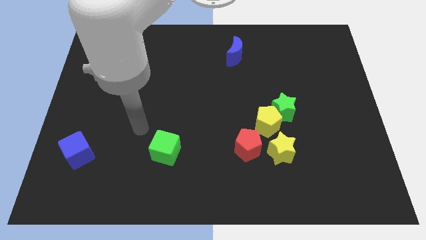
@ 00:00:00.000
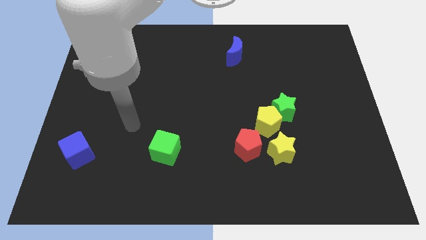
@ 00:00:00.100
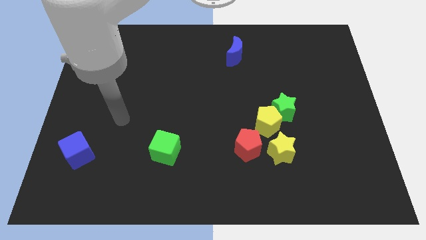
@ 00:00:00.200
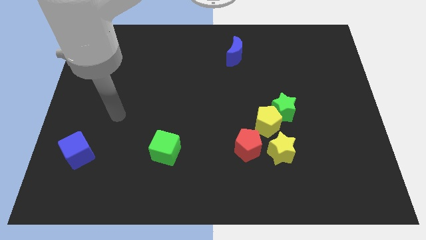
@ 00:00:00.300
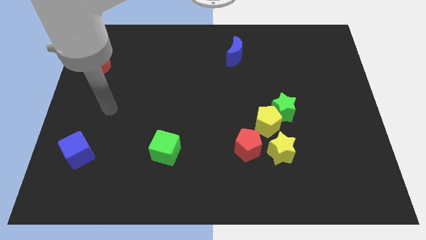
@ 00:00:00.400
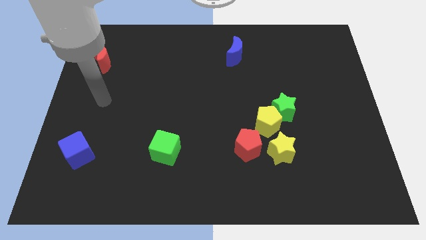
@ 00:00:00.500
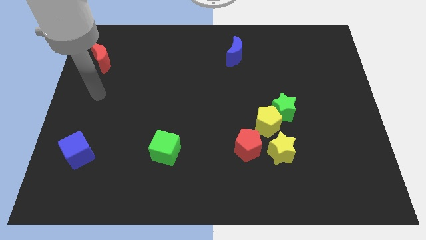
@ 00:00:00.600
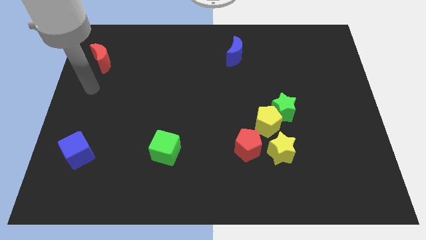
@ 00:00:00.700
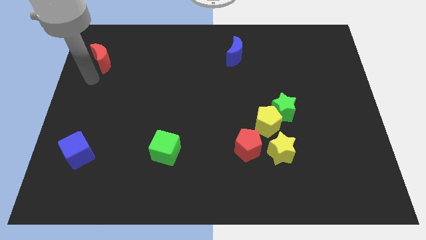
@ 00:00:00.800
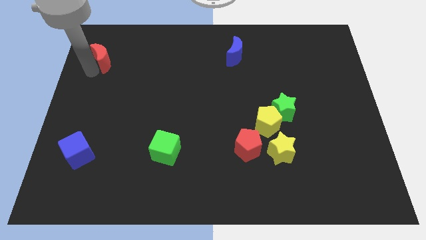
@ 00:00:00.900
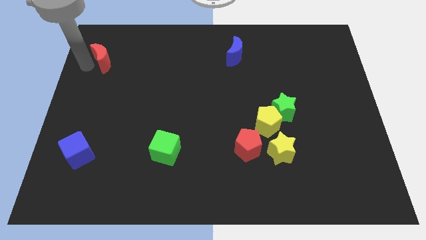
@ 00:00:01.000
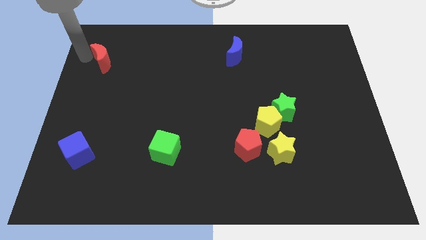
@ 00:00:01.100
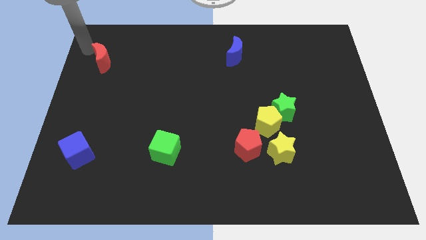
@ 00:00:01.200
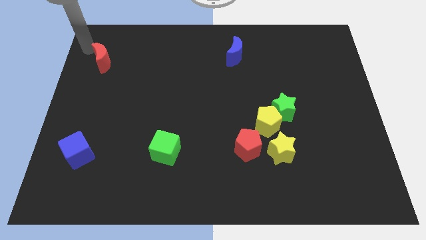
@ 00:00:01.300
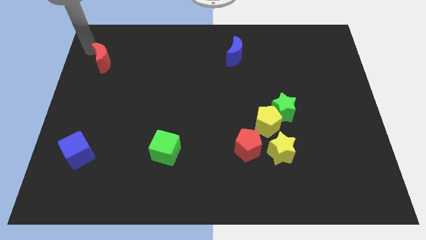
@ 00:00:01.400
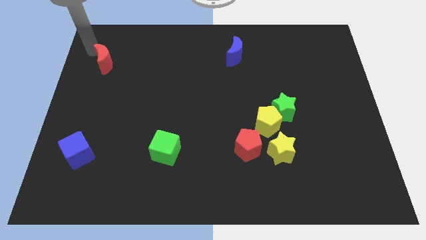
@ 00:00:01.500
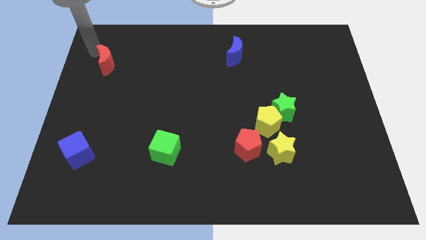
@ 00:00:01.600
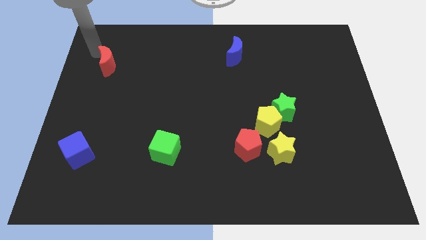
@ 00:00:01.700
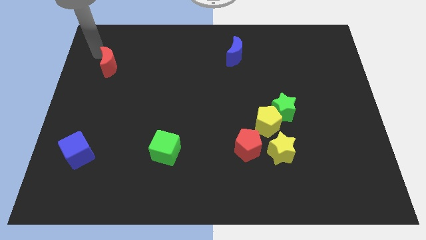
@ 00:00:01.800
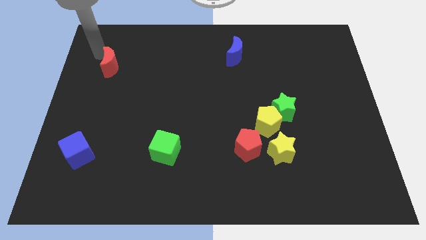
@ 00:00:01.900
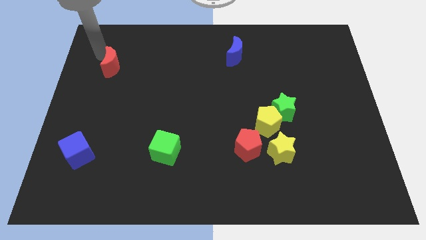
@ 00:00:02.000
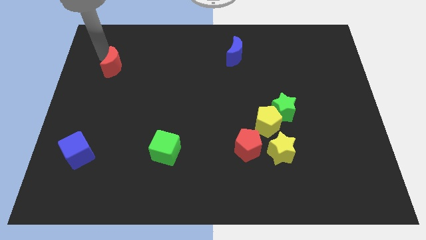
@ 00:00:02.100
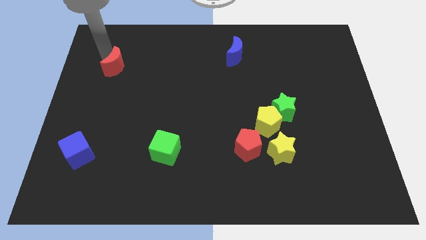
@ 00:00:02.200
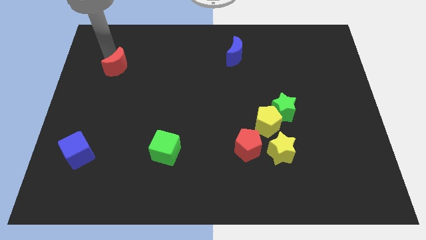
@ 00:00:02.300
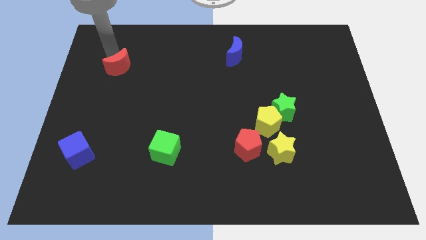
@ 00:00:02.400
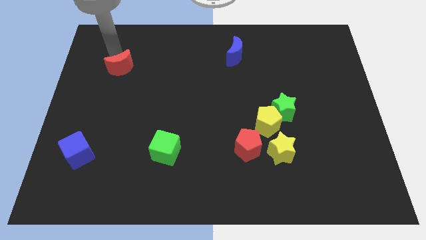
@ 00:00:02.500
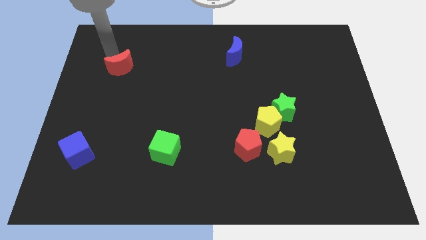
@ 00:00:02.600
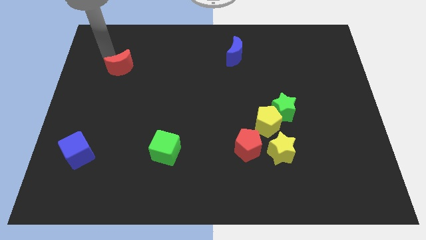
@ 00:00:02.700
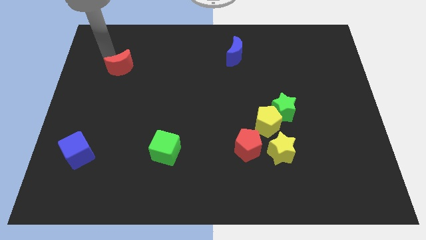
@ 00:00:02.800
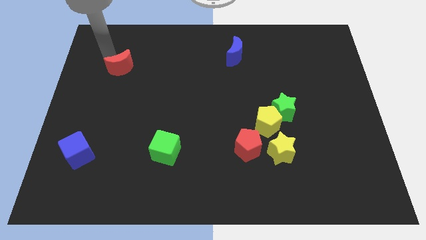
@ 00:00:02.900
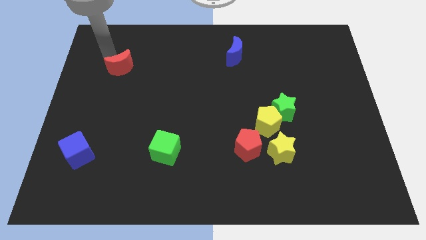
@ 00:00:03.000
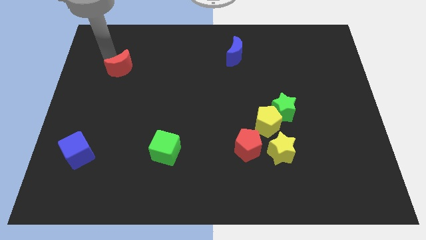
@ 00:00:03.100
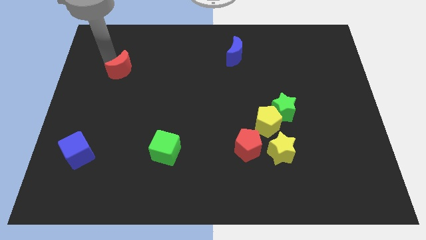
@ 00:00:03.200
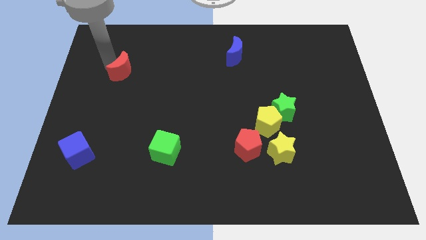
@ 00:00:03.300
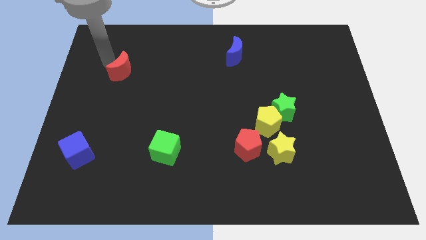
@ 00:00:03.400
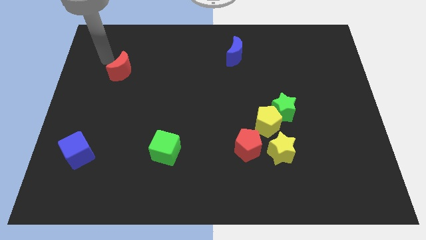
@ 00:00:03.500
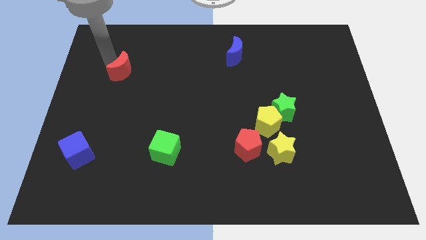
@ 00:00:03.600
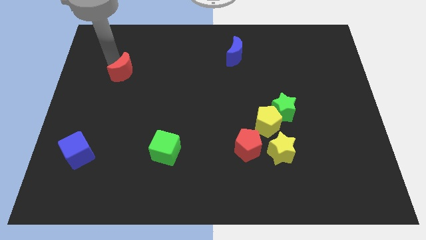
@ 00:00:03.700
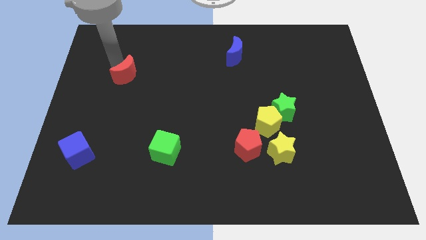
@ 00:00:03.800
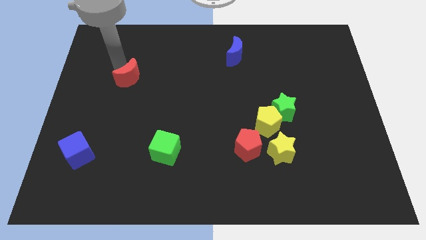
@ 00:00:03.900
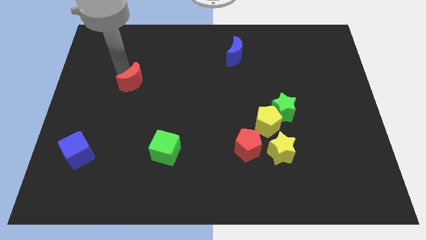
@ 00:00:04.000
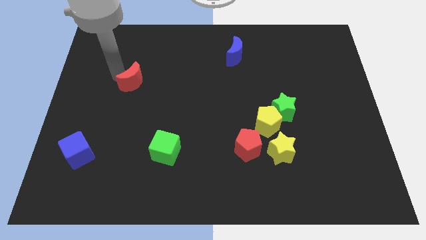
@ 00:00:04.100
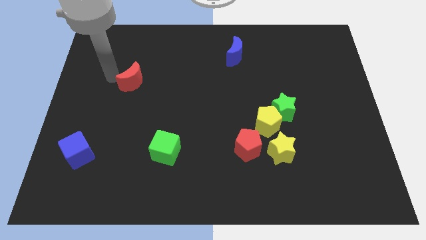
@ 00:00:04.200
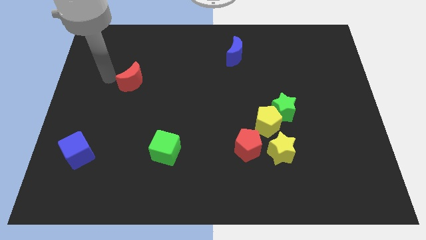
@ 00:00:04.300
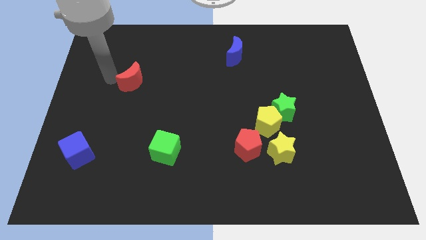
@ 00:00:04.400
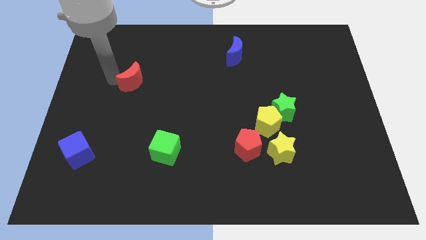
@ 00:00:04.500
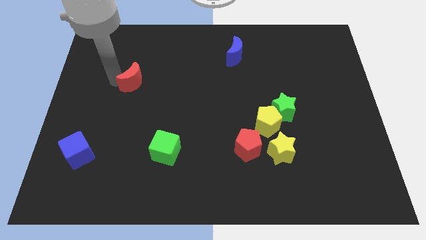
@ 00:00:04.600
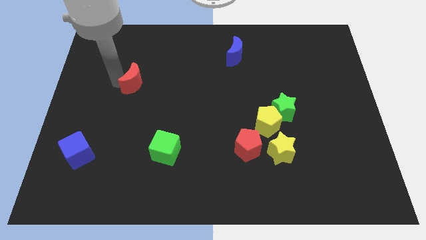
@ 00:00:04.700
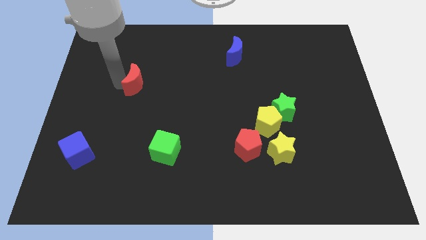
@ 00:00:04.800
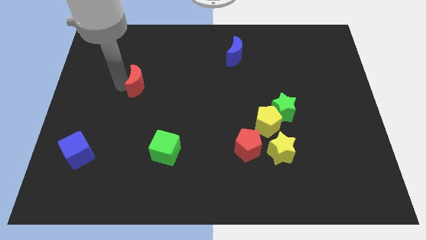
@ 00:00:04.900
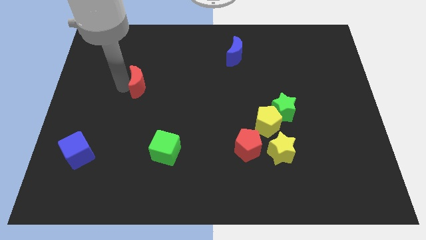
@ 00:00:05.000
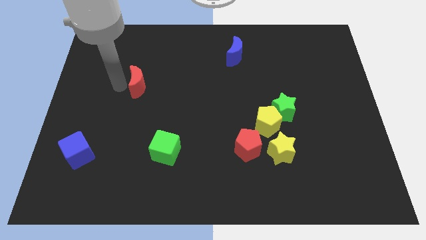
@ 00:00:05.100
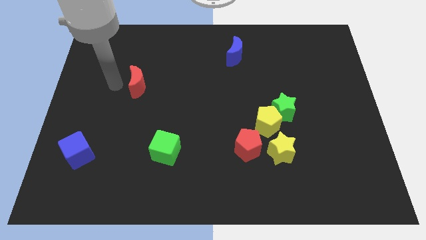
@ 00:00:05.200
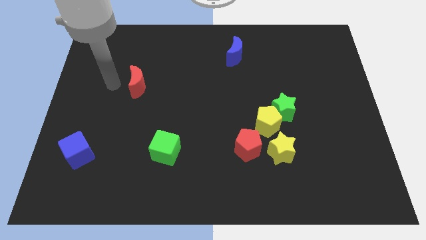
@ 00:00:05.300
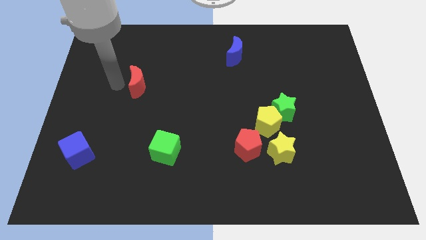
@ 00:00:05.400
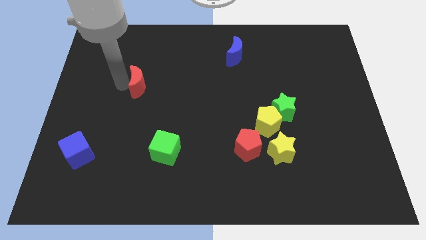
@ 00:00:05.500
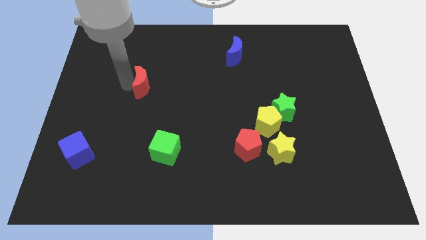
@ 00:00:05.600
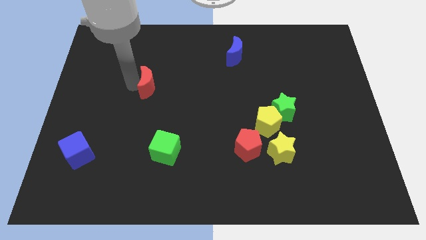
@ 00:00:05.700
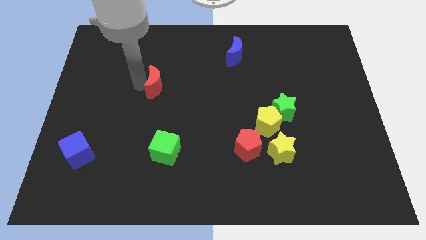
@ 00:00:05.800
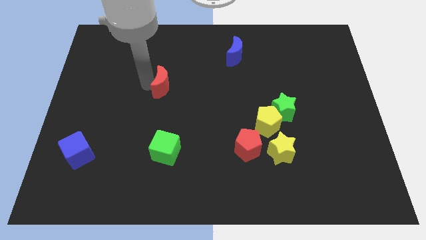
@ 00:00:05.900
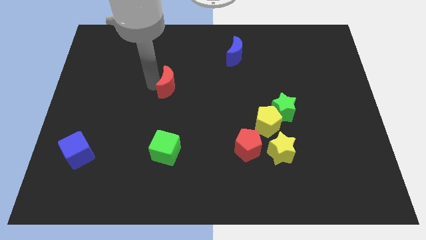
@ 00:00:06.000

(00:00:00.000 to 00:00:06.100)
slide the red moon to the middle
